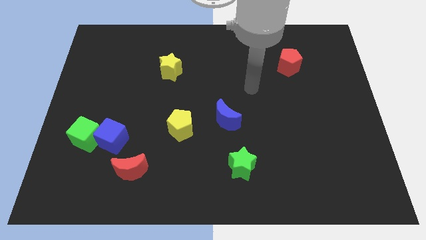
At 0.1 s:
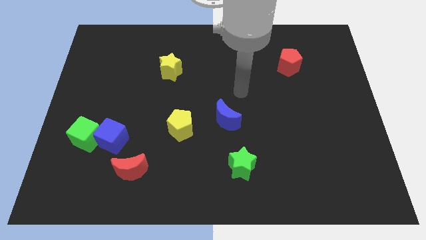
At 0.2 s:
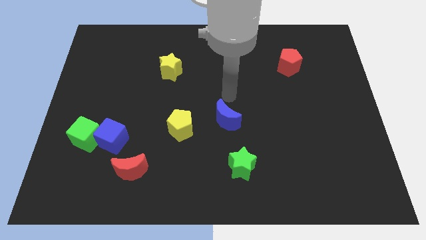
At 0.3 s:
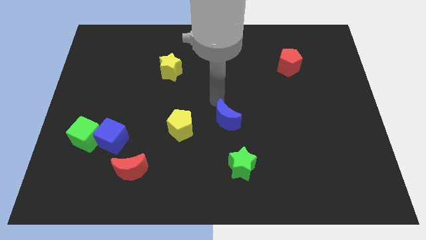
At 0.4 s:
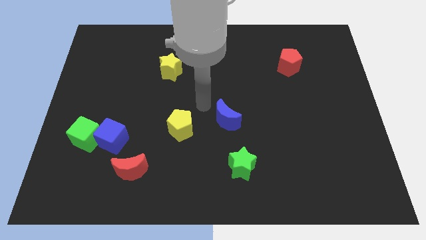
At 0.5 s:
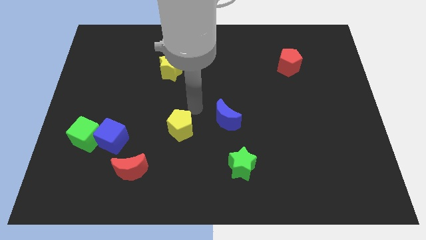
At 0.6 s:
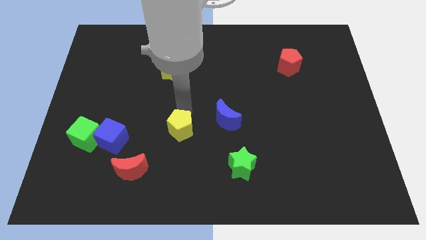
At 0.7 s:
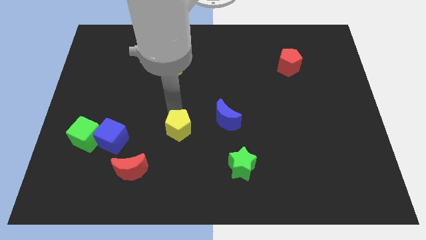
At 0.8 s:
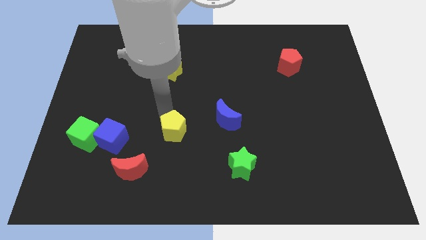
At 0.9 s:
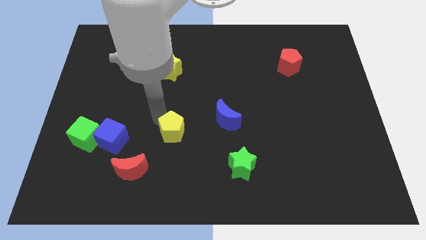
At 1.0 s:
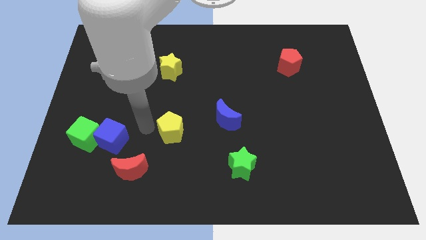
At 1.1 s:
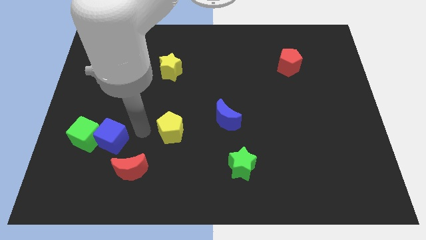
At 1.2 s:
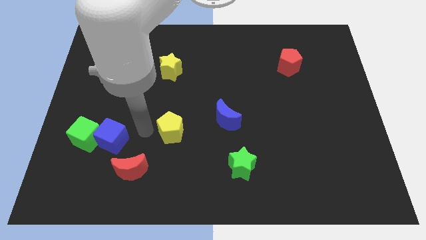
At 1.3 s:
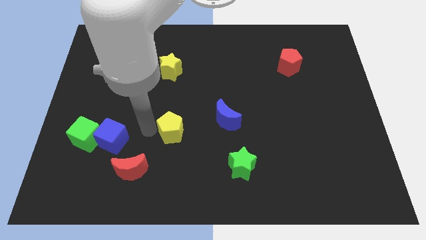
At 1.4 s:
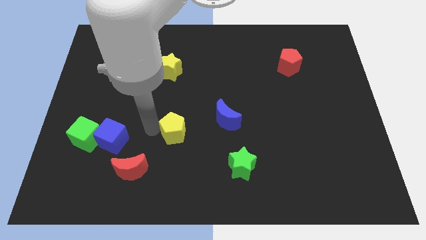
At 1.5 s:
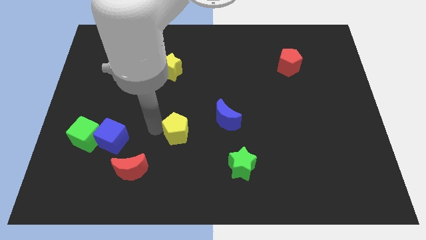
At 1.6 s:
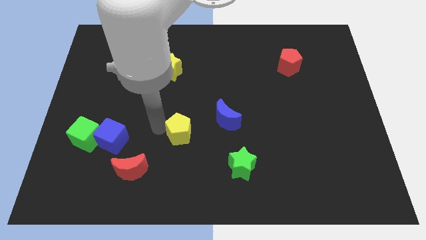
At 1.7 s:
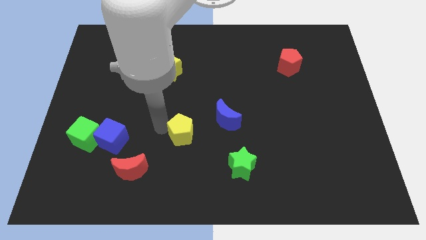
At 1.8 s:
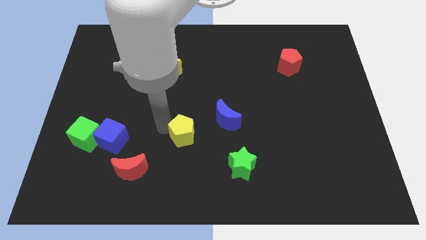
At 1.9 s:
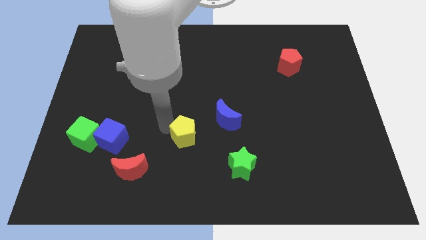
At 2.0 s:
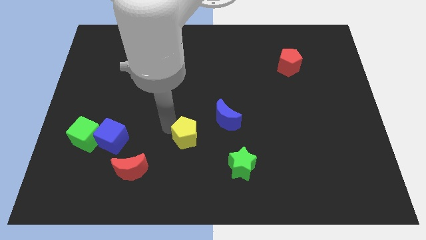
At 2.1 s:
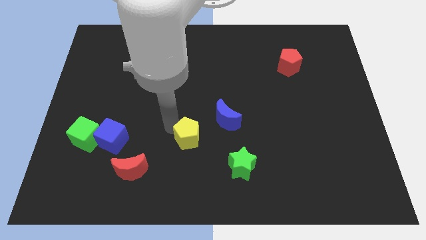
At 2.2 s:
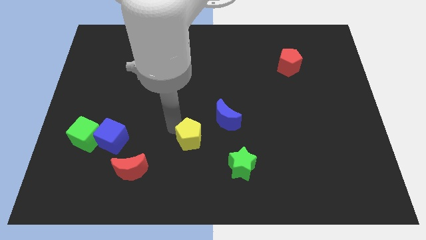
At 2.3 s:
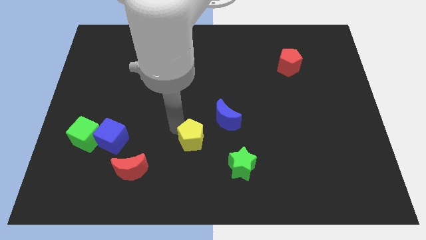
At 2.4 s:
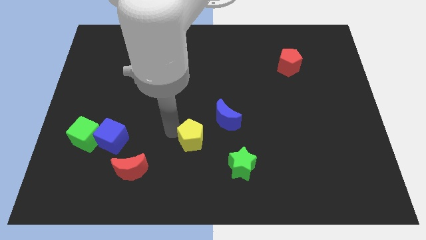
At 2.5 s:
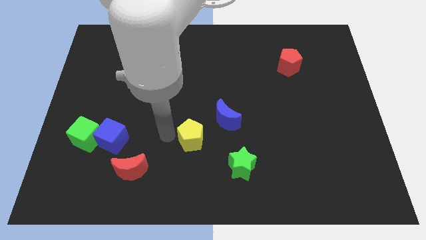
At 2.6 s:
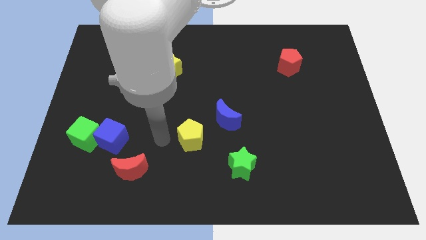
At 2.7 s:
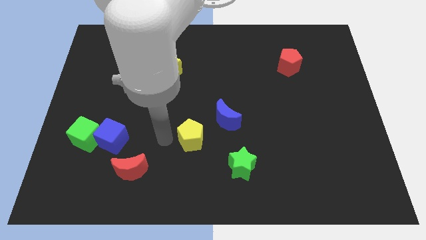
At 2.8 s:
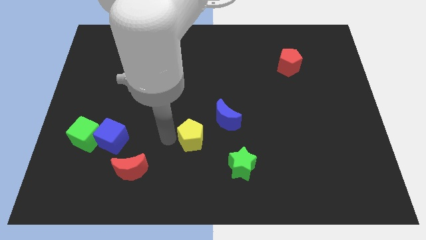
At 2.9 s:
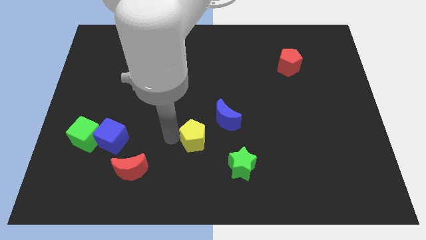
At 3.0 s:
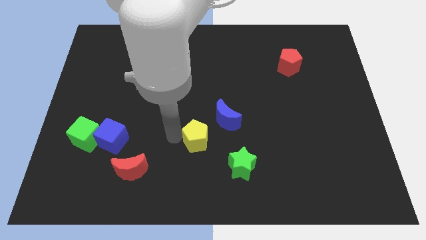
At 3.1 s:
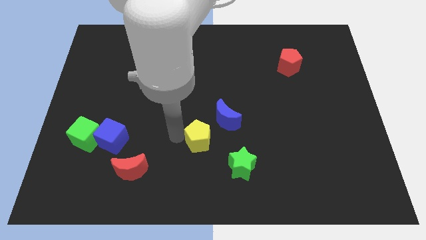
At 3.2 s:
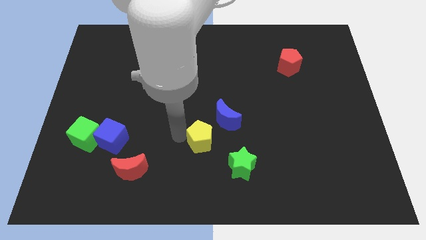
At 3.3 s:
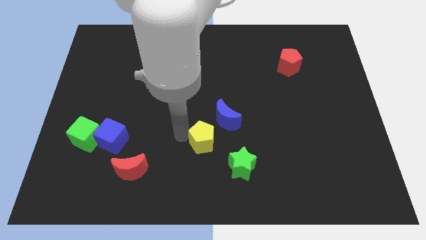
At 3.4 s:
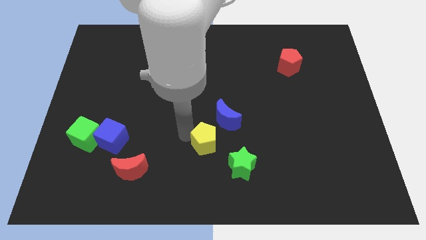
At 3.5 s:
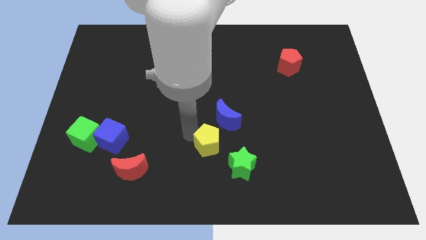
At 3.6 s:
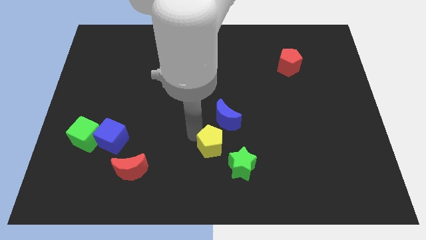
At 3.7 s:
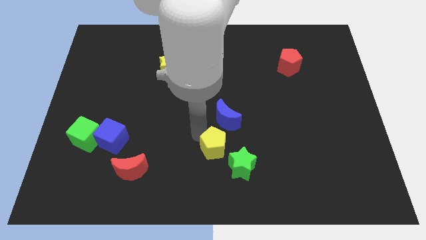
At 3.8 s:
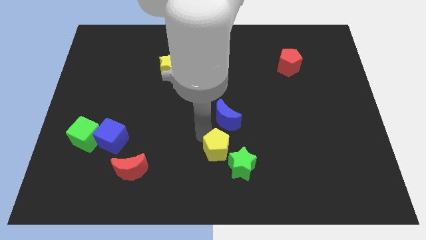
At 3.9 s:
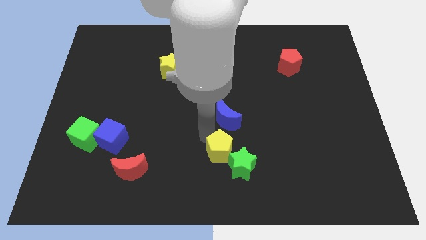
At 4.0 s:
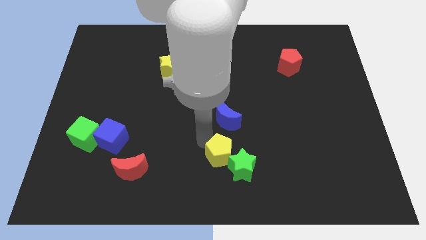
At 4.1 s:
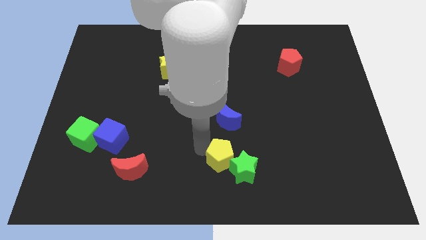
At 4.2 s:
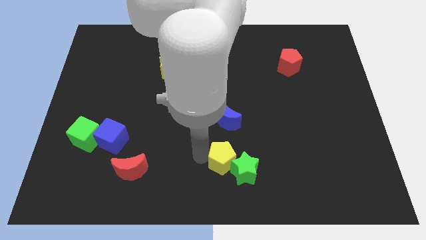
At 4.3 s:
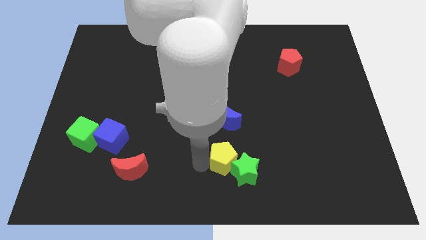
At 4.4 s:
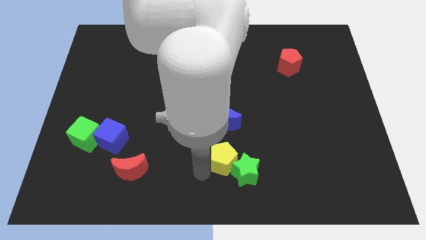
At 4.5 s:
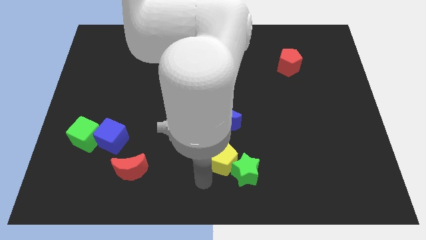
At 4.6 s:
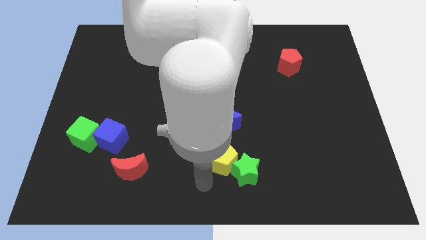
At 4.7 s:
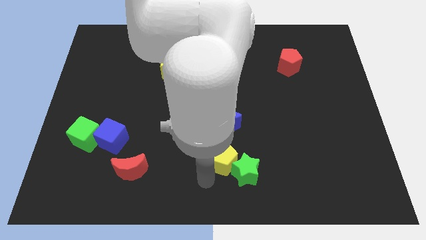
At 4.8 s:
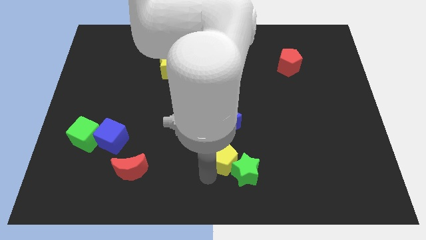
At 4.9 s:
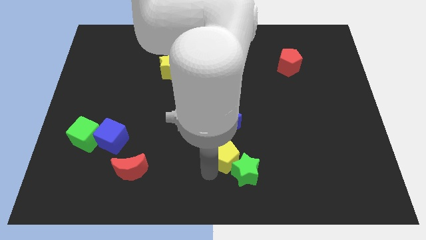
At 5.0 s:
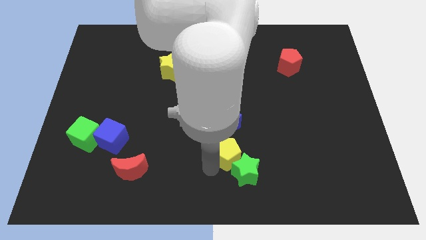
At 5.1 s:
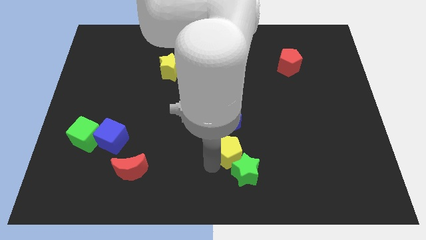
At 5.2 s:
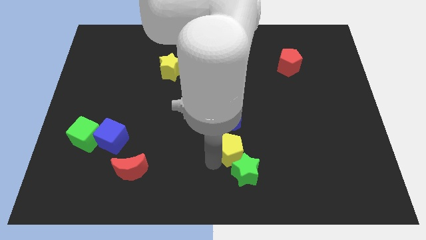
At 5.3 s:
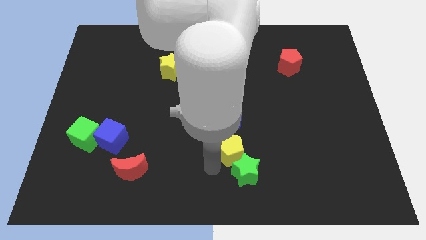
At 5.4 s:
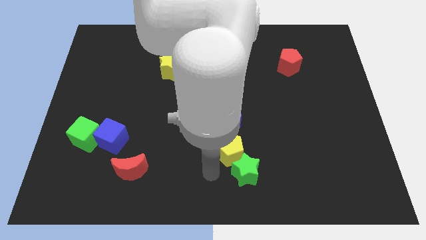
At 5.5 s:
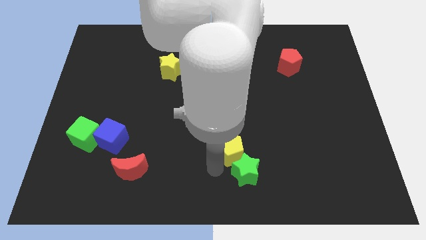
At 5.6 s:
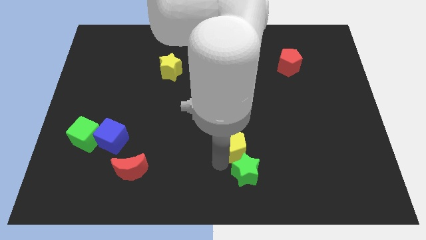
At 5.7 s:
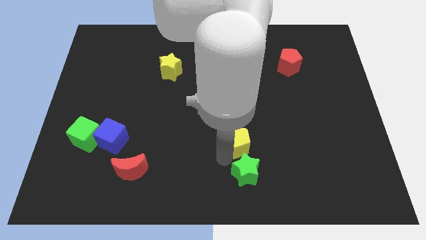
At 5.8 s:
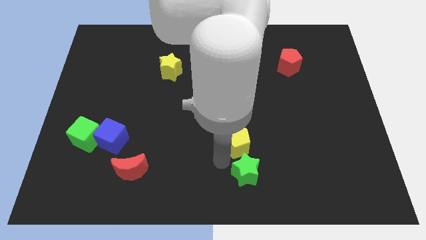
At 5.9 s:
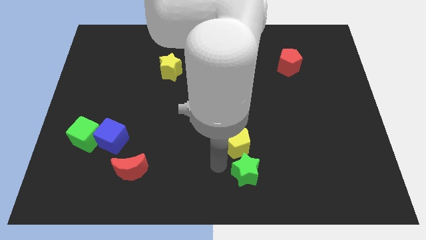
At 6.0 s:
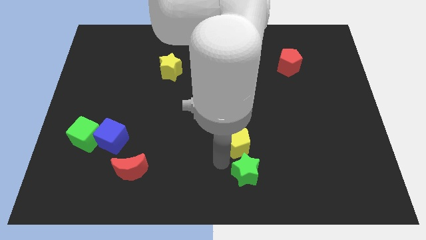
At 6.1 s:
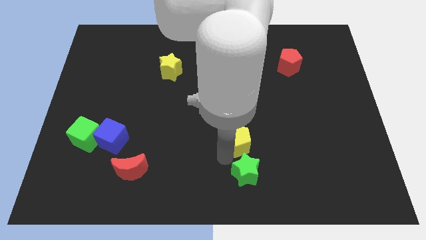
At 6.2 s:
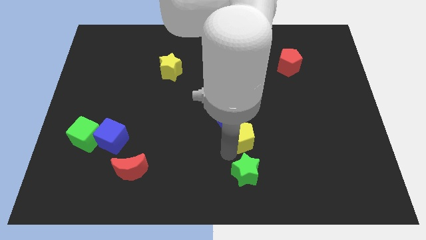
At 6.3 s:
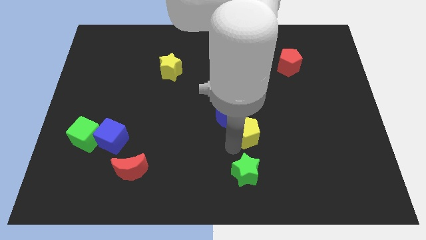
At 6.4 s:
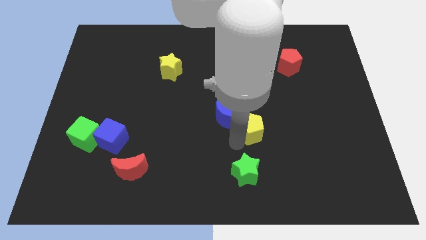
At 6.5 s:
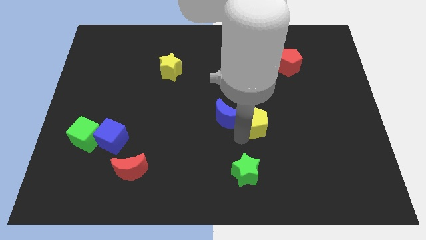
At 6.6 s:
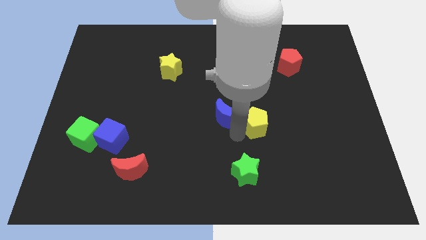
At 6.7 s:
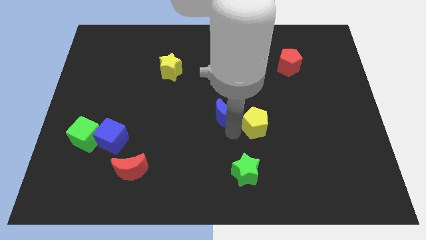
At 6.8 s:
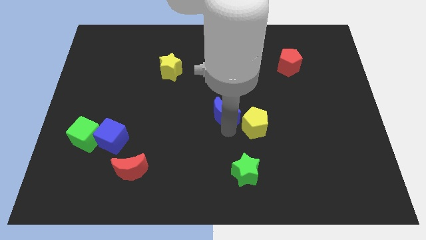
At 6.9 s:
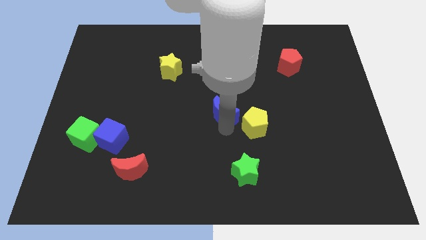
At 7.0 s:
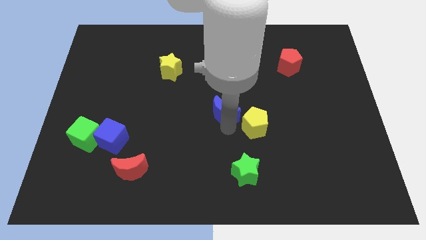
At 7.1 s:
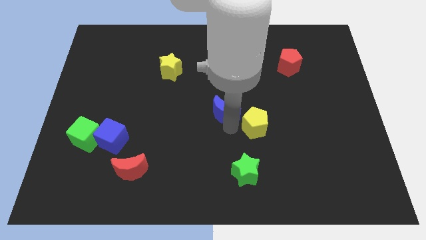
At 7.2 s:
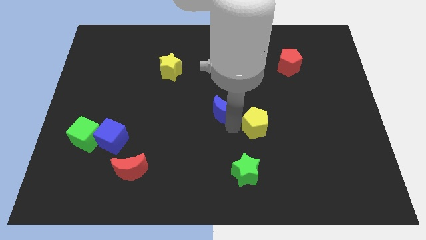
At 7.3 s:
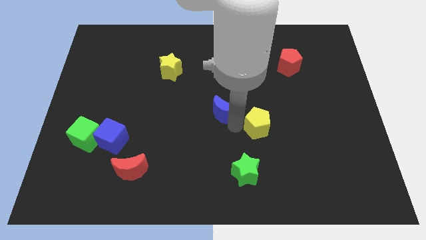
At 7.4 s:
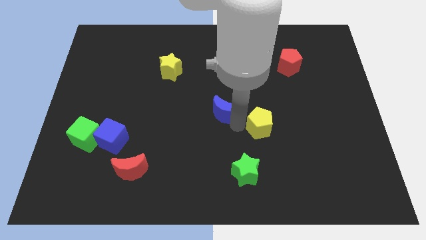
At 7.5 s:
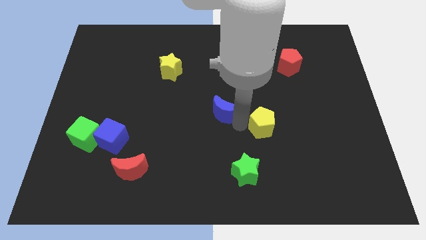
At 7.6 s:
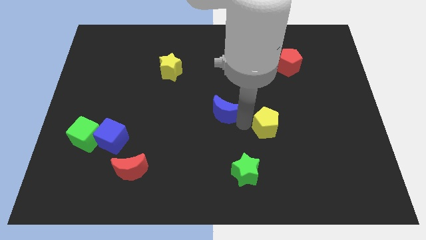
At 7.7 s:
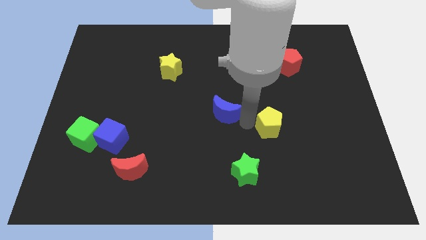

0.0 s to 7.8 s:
push the yellow pentagon to the right

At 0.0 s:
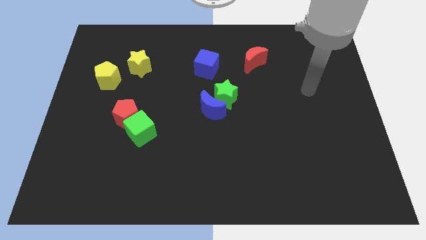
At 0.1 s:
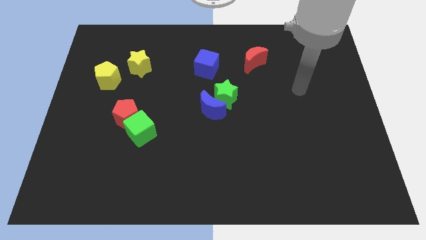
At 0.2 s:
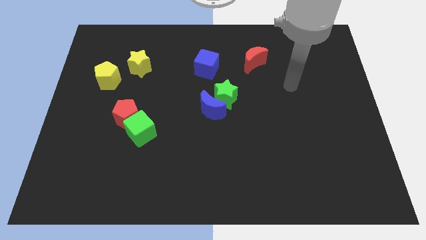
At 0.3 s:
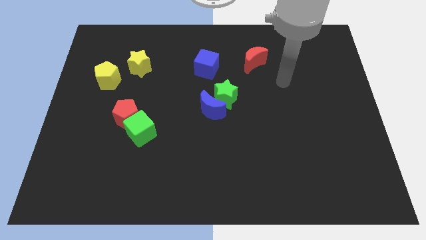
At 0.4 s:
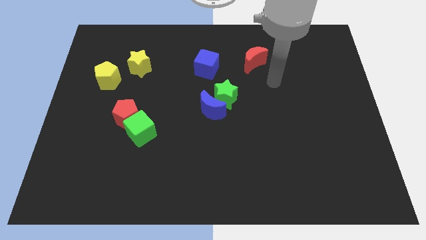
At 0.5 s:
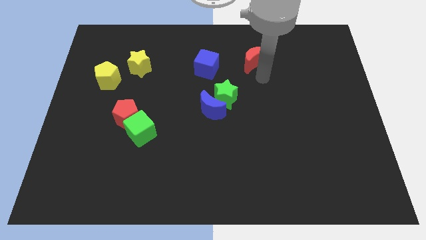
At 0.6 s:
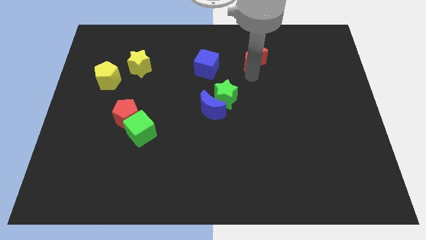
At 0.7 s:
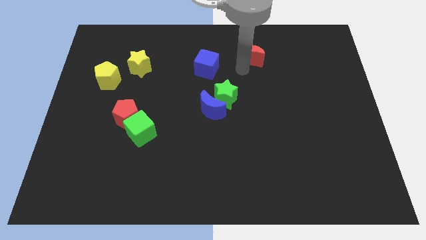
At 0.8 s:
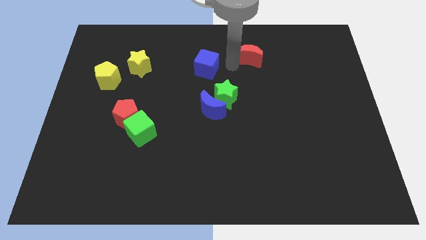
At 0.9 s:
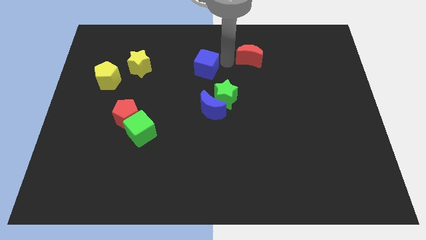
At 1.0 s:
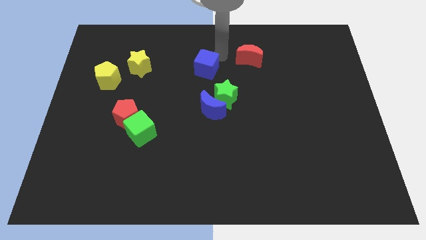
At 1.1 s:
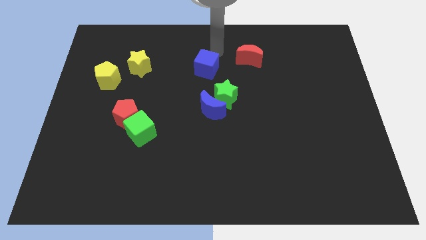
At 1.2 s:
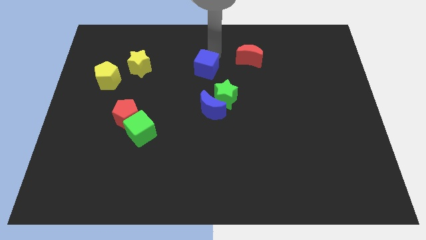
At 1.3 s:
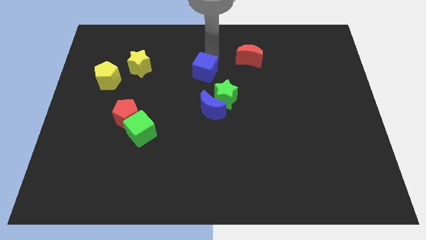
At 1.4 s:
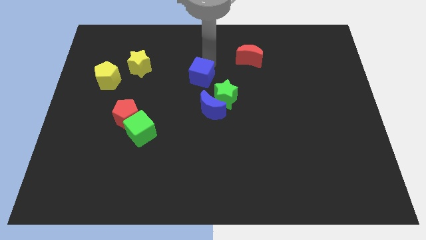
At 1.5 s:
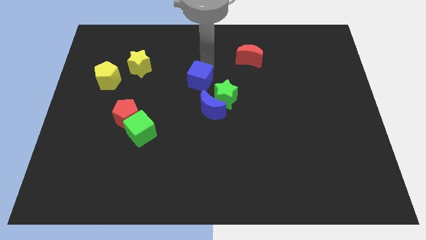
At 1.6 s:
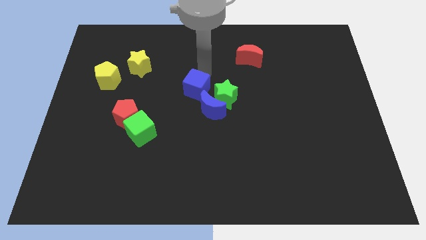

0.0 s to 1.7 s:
slide the blue cube down slightly
